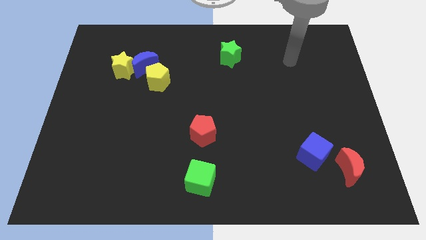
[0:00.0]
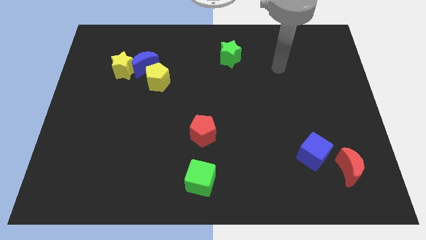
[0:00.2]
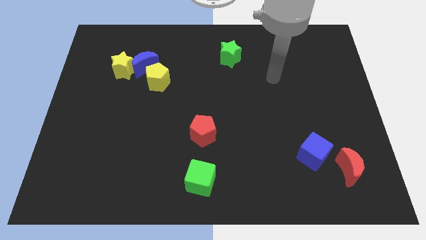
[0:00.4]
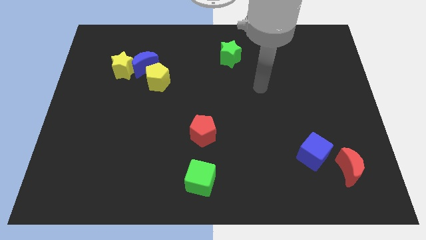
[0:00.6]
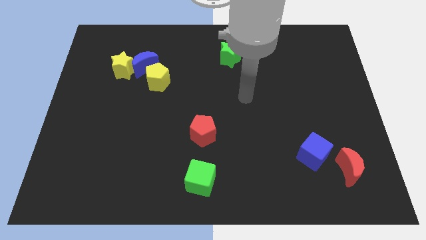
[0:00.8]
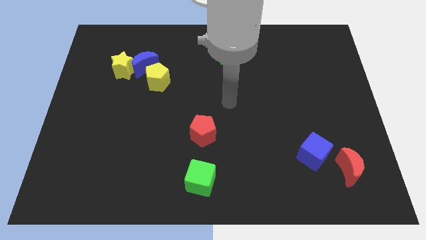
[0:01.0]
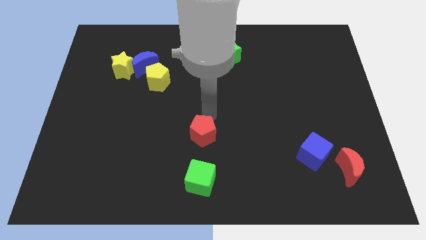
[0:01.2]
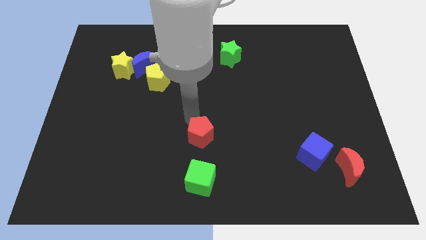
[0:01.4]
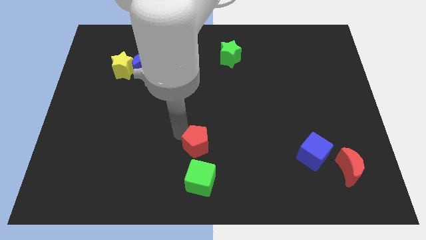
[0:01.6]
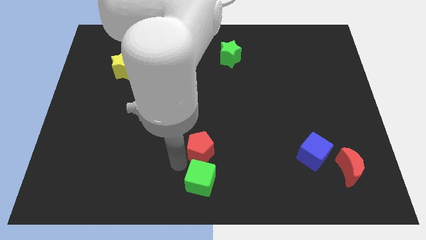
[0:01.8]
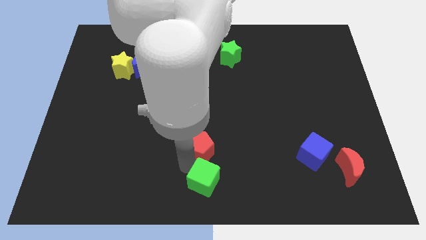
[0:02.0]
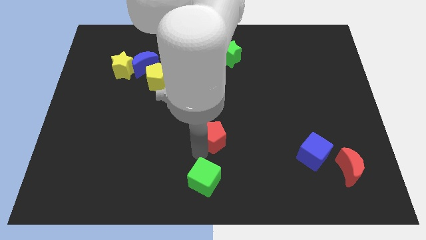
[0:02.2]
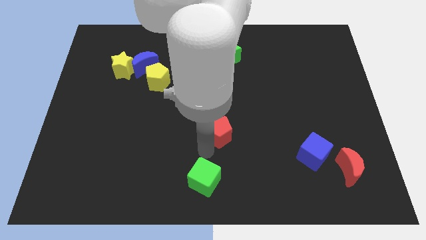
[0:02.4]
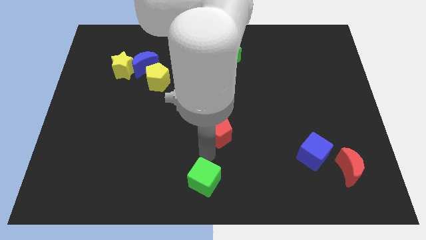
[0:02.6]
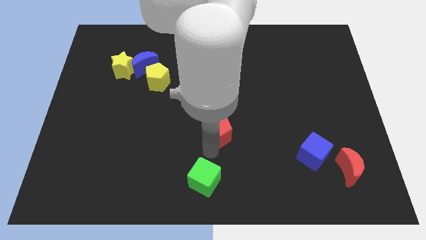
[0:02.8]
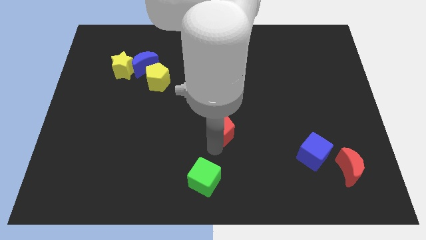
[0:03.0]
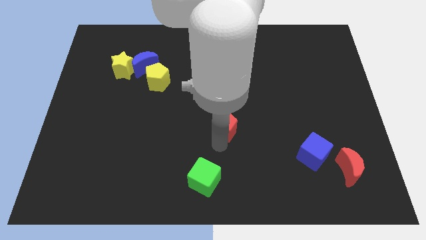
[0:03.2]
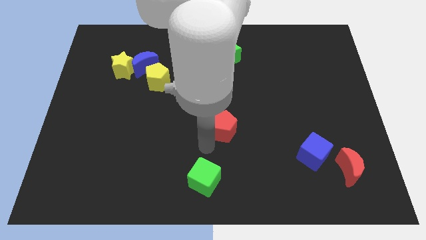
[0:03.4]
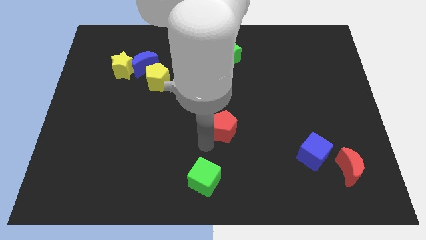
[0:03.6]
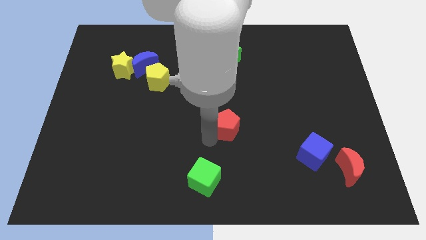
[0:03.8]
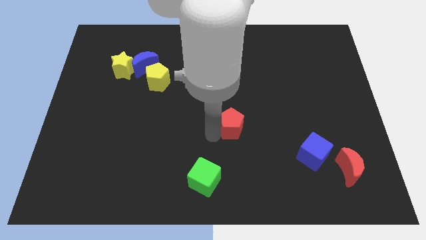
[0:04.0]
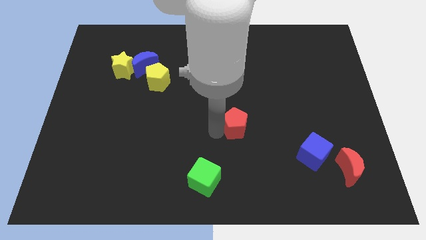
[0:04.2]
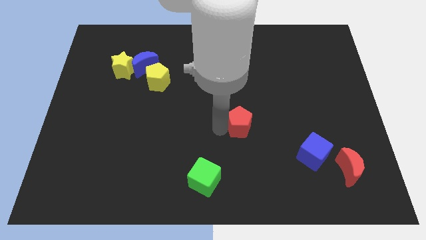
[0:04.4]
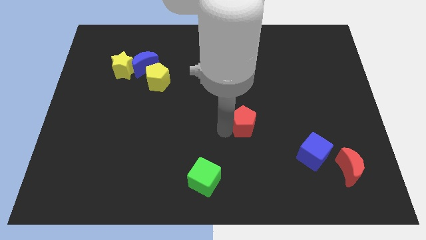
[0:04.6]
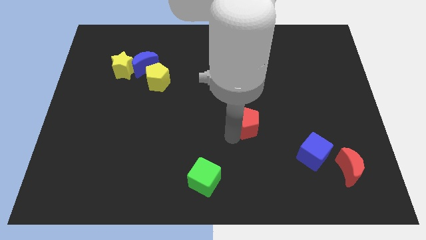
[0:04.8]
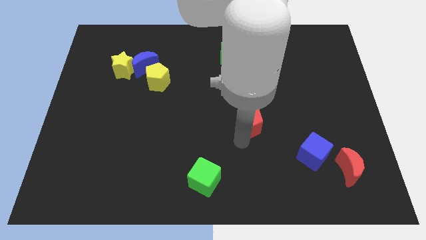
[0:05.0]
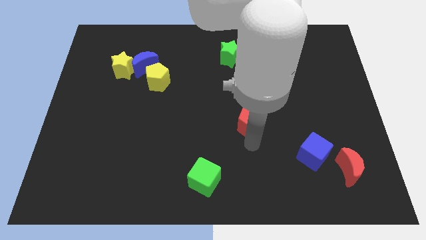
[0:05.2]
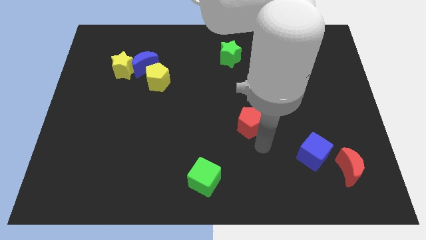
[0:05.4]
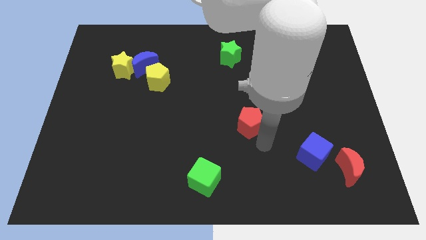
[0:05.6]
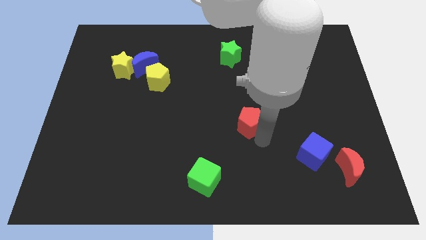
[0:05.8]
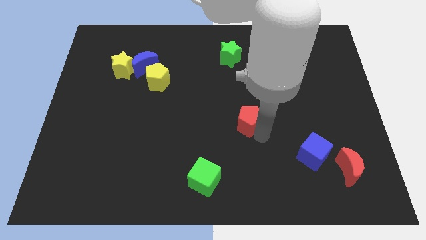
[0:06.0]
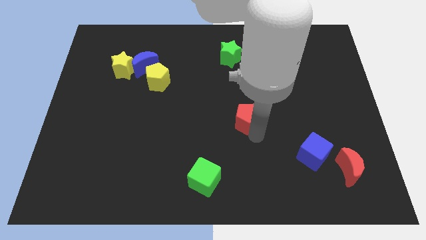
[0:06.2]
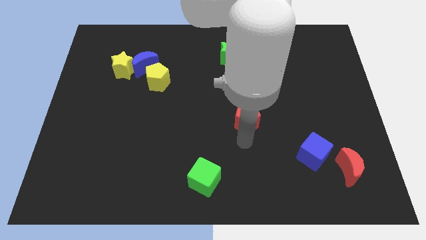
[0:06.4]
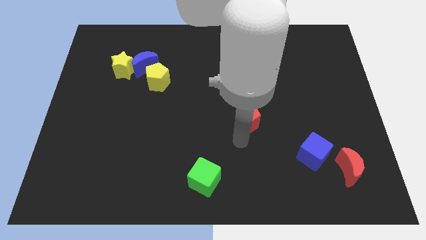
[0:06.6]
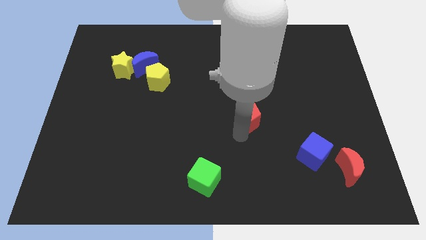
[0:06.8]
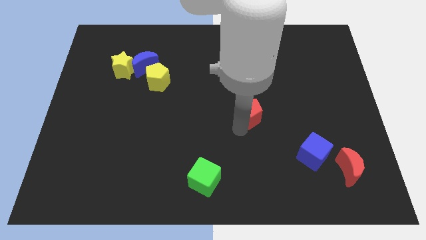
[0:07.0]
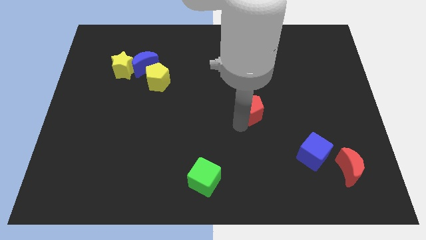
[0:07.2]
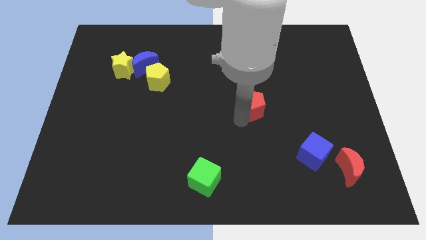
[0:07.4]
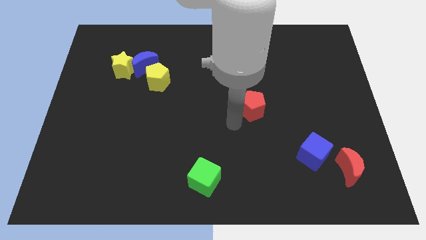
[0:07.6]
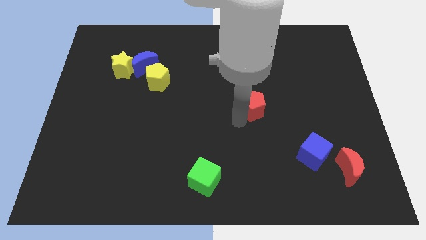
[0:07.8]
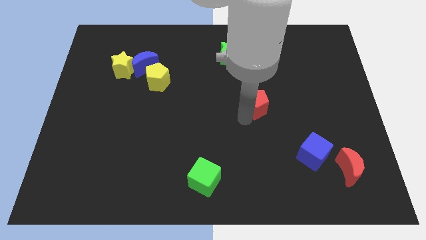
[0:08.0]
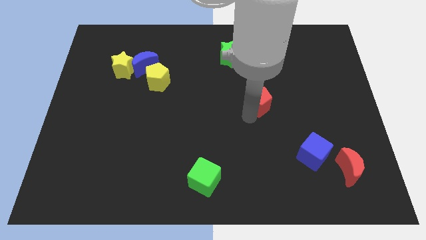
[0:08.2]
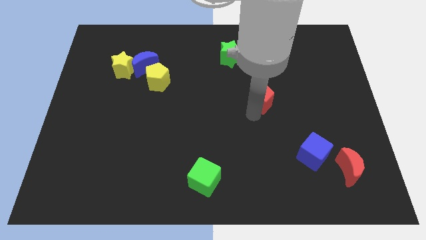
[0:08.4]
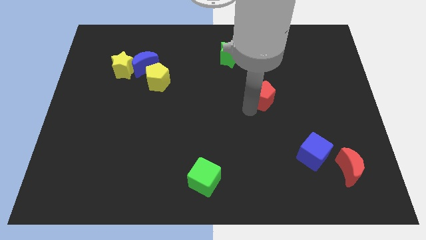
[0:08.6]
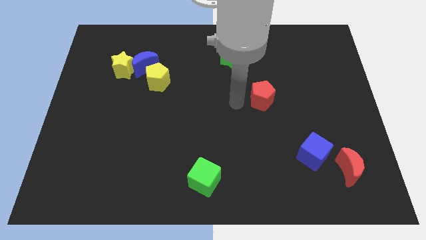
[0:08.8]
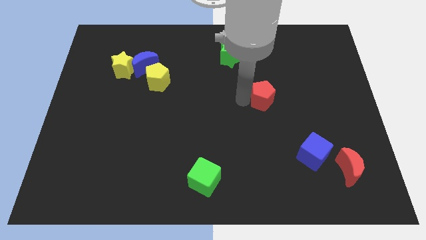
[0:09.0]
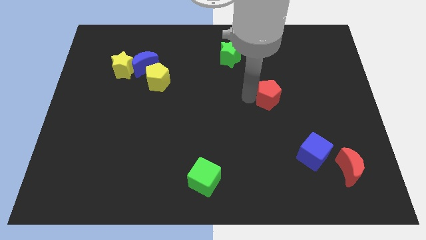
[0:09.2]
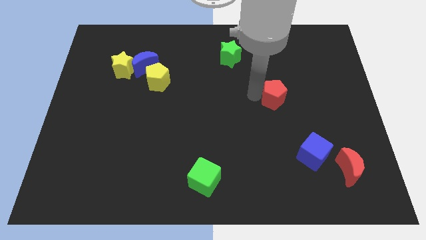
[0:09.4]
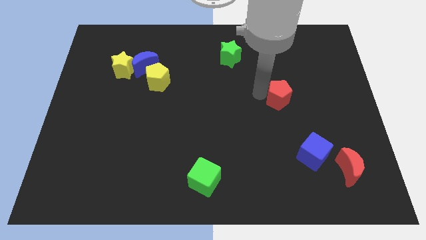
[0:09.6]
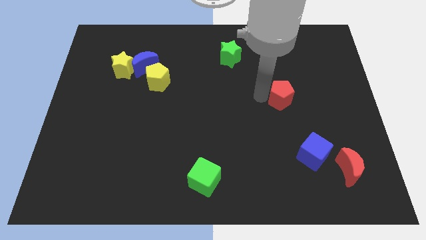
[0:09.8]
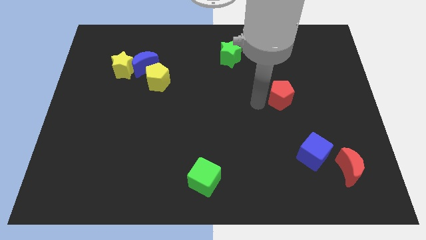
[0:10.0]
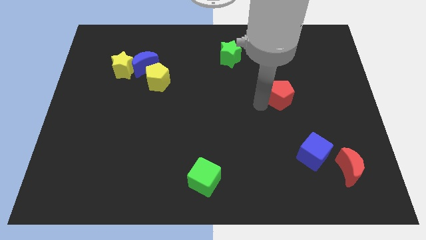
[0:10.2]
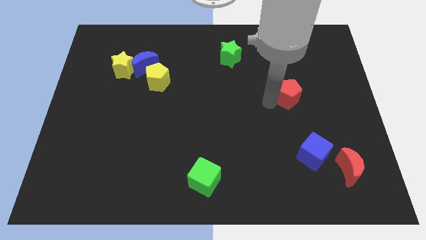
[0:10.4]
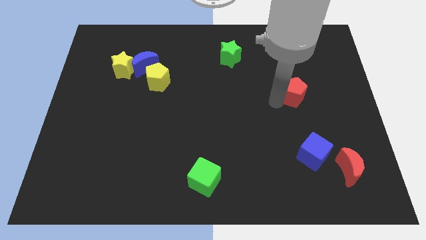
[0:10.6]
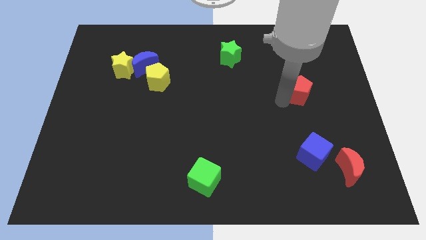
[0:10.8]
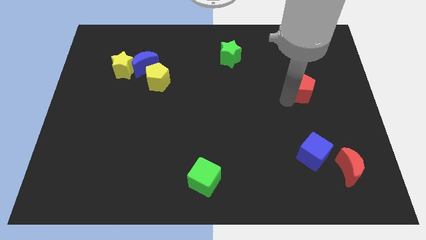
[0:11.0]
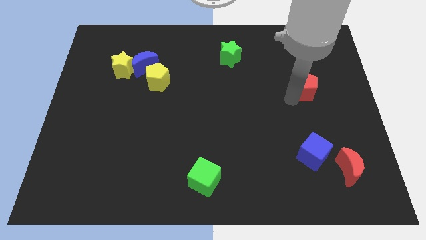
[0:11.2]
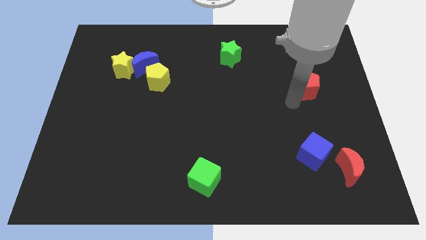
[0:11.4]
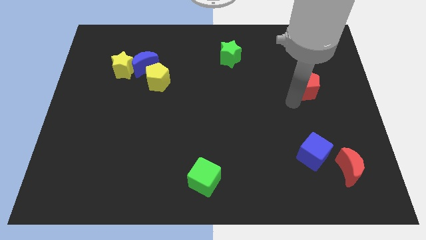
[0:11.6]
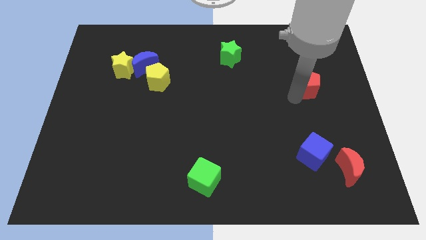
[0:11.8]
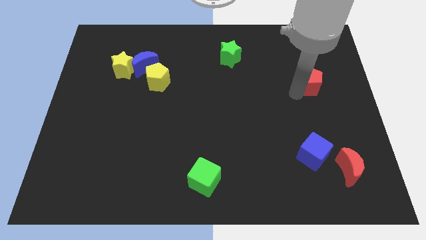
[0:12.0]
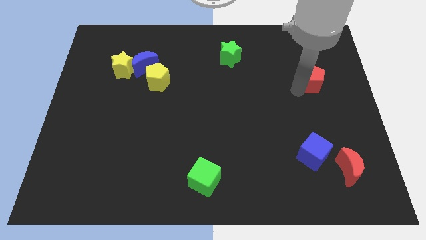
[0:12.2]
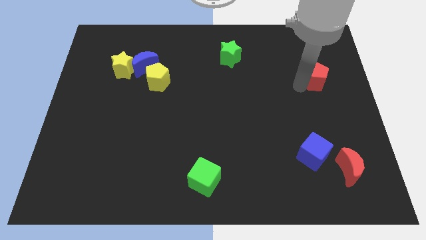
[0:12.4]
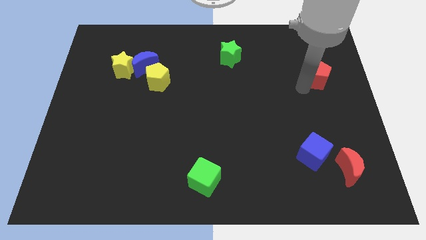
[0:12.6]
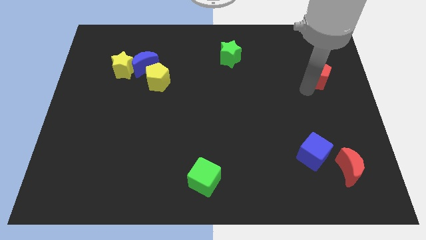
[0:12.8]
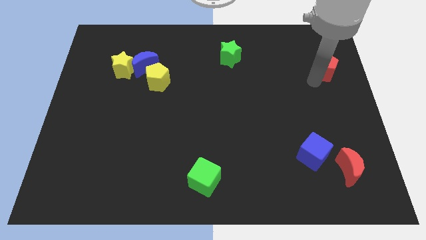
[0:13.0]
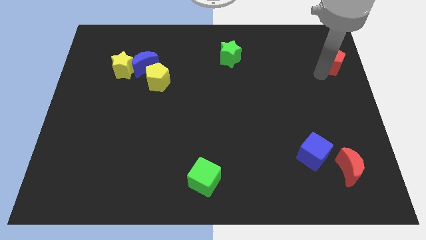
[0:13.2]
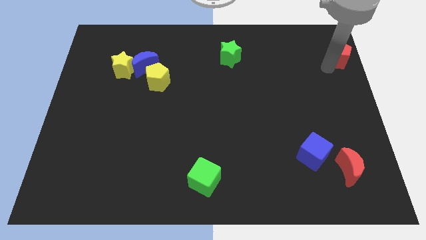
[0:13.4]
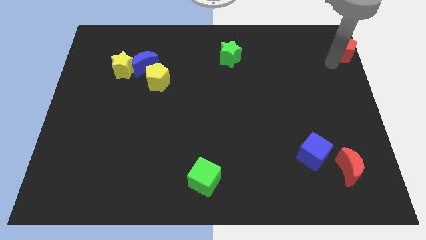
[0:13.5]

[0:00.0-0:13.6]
push the red pentagon to the top right
